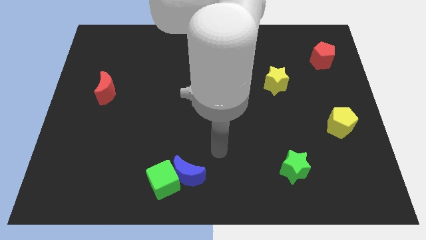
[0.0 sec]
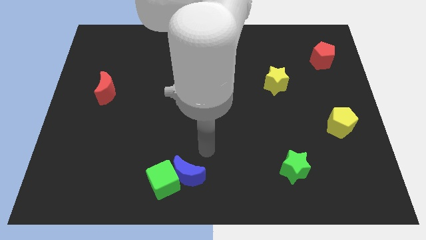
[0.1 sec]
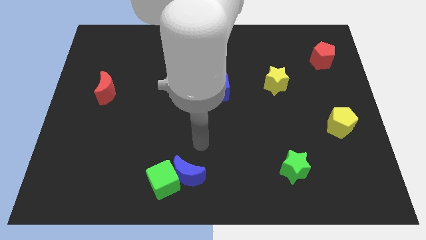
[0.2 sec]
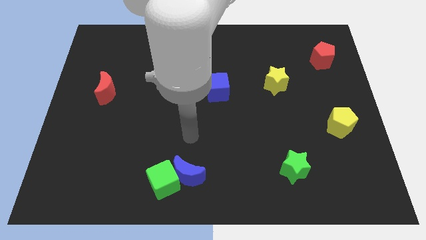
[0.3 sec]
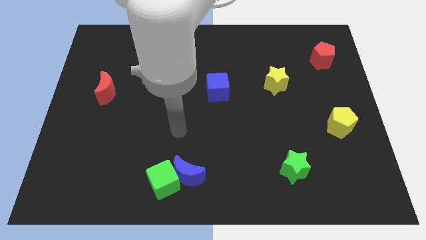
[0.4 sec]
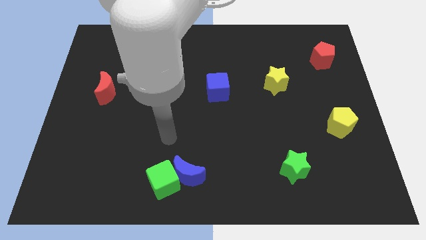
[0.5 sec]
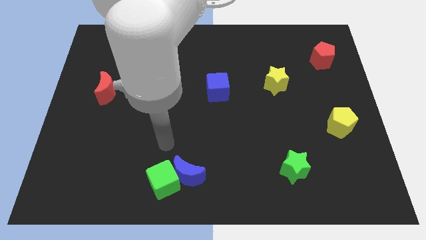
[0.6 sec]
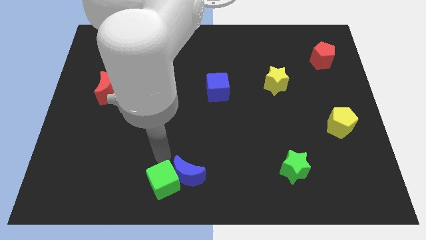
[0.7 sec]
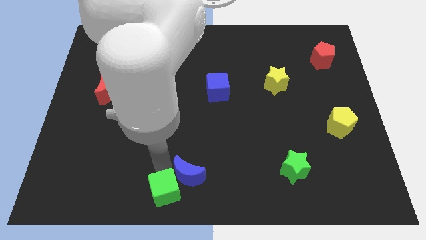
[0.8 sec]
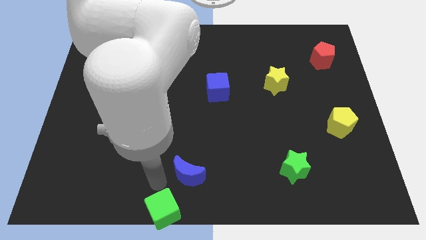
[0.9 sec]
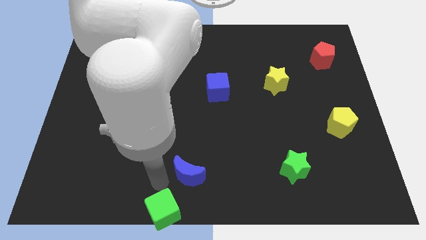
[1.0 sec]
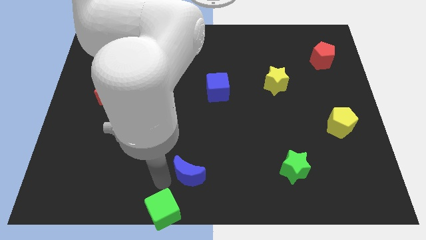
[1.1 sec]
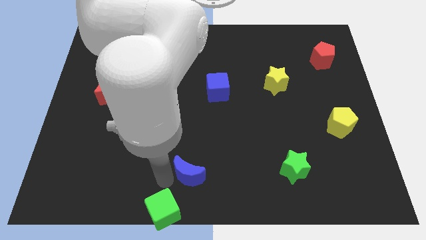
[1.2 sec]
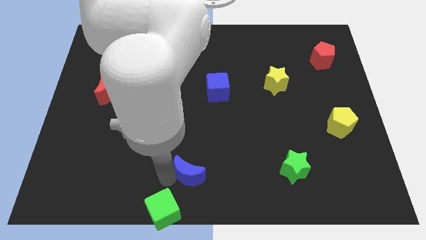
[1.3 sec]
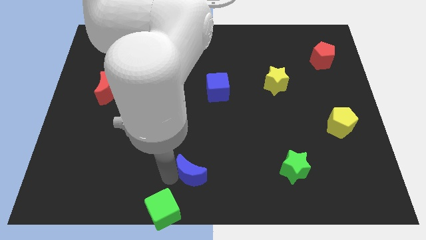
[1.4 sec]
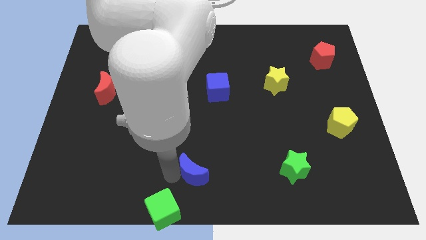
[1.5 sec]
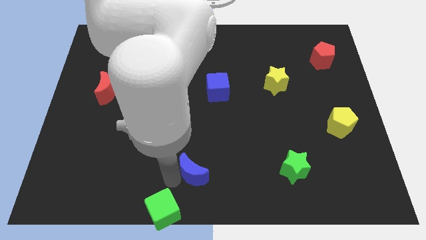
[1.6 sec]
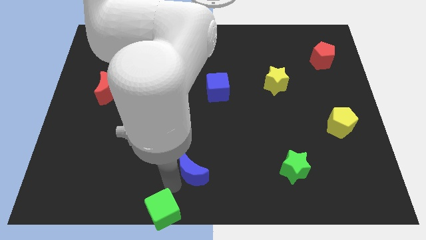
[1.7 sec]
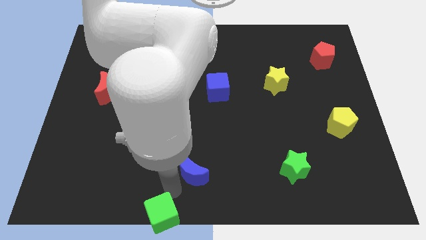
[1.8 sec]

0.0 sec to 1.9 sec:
separate the blue moon from the green cube

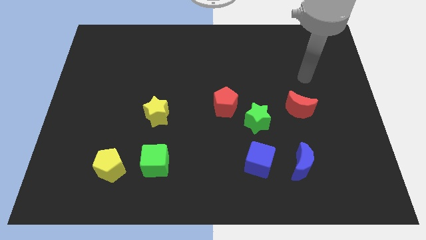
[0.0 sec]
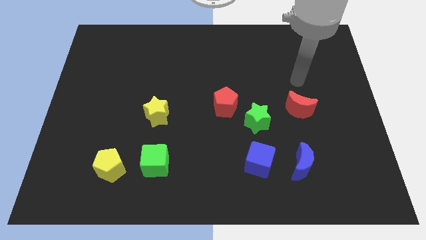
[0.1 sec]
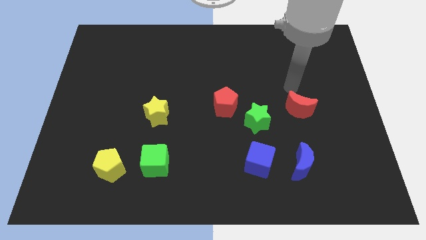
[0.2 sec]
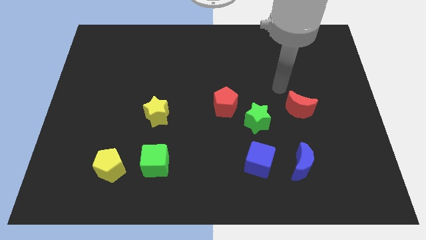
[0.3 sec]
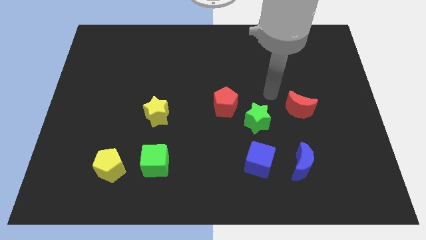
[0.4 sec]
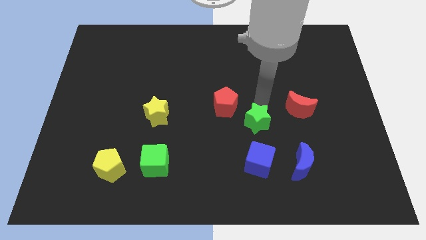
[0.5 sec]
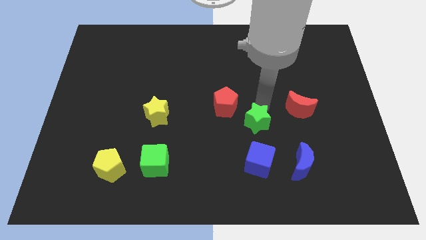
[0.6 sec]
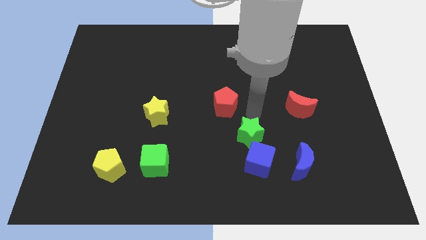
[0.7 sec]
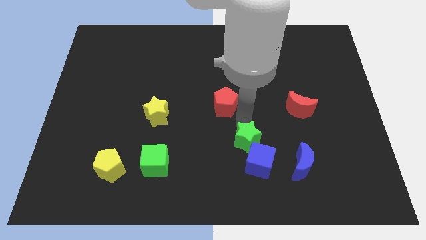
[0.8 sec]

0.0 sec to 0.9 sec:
separate the red pentagon from the green star

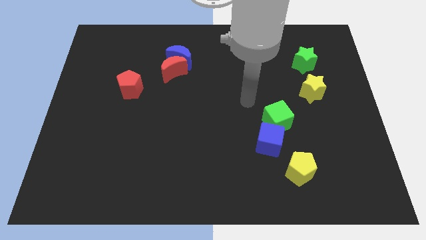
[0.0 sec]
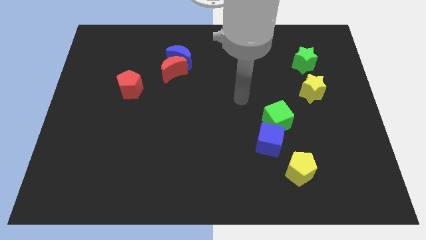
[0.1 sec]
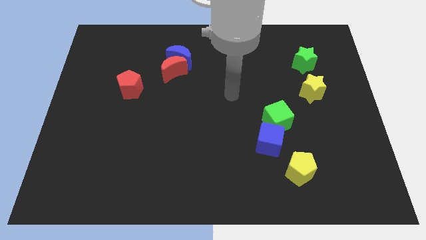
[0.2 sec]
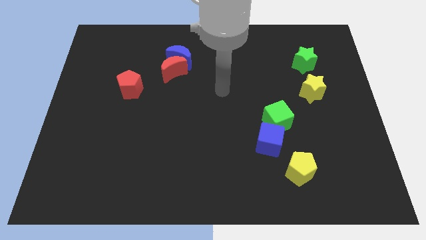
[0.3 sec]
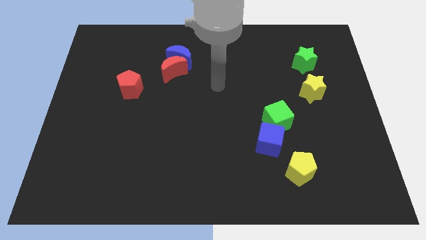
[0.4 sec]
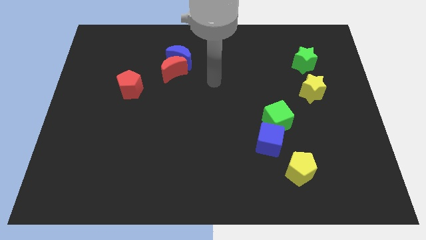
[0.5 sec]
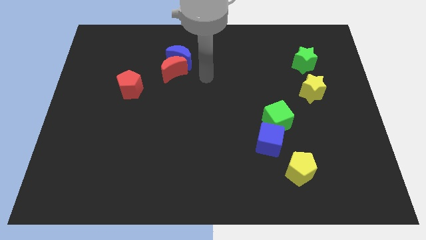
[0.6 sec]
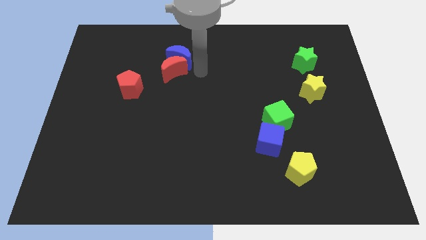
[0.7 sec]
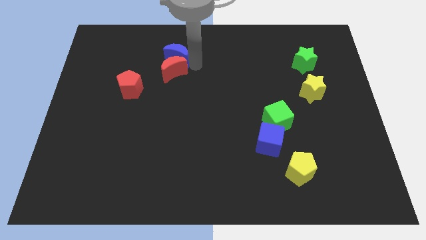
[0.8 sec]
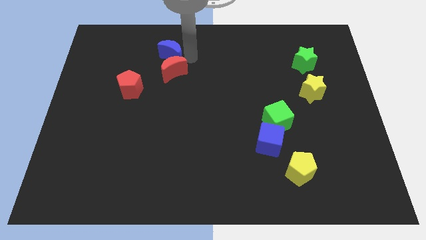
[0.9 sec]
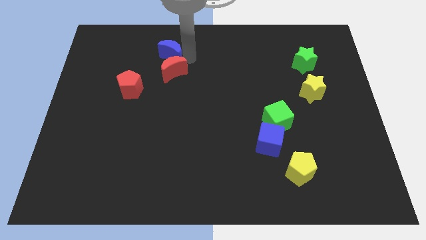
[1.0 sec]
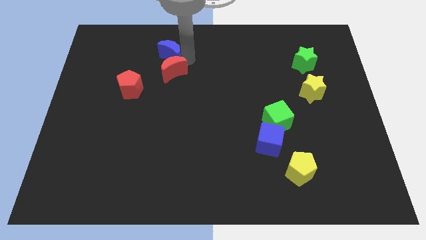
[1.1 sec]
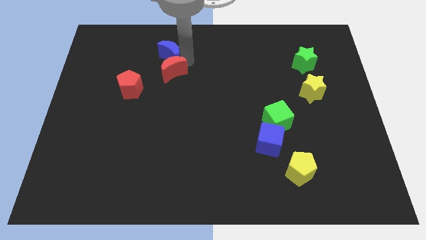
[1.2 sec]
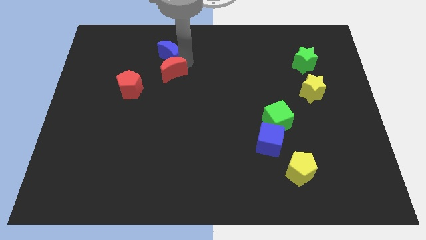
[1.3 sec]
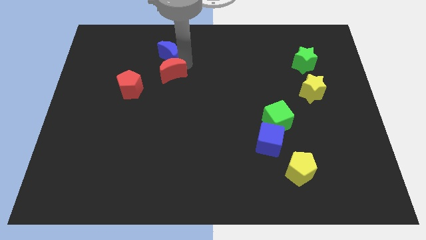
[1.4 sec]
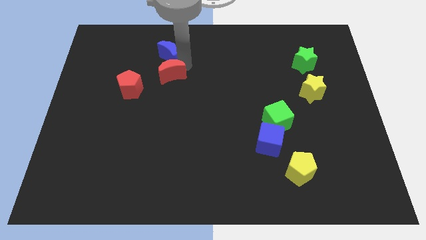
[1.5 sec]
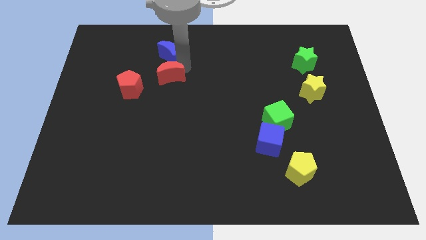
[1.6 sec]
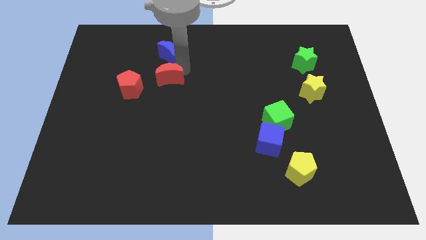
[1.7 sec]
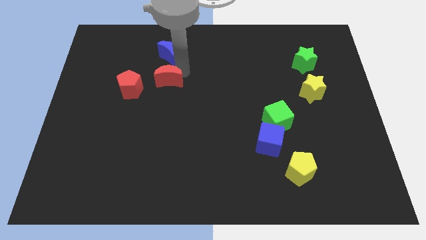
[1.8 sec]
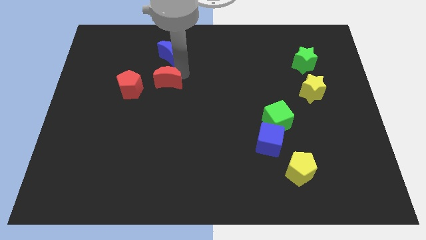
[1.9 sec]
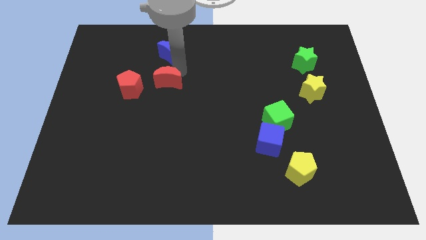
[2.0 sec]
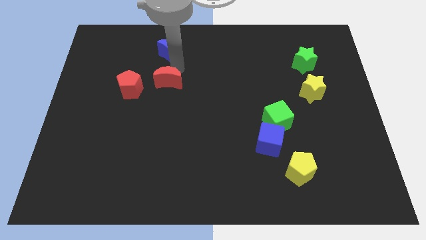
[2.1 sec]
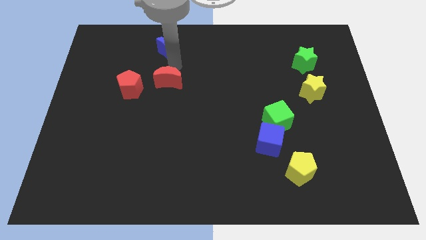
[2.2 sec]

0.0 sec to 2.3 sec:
move the red moon away from the blue moon

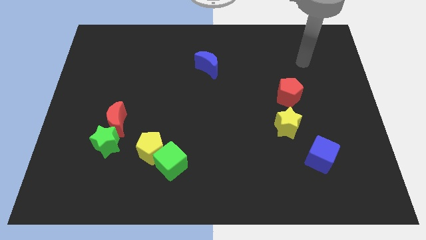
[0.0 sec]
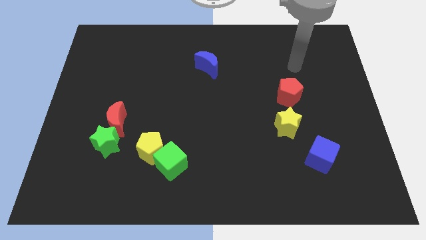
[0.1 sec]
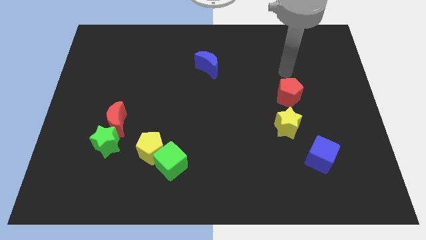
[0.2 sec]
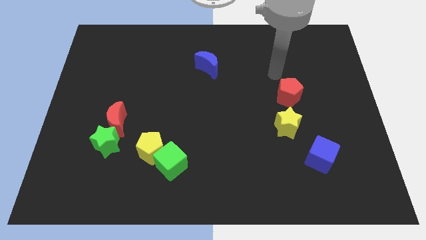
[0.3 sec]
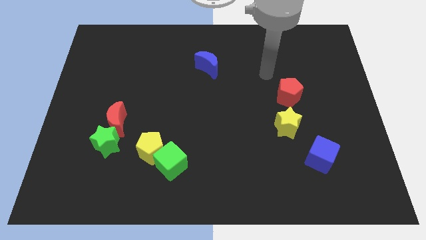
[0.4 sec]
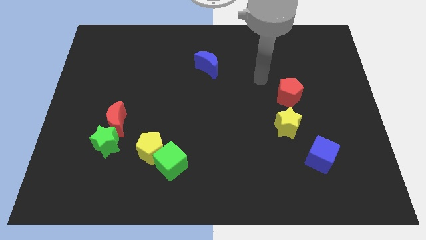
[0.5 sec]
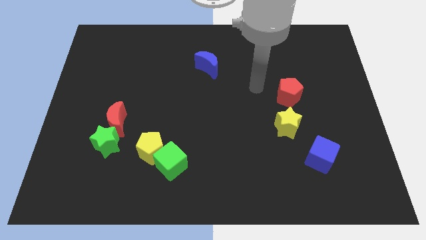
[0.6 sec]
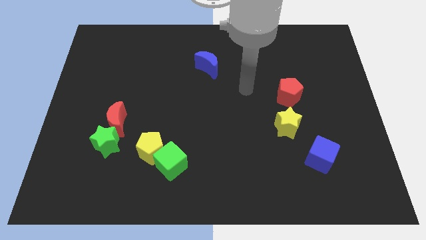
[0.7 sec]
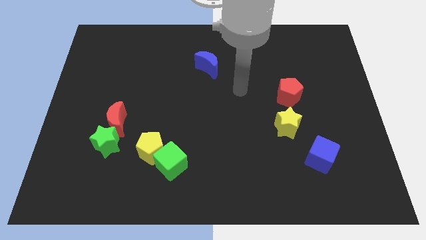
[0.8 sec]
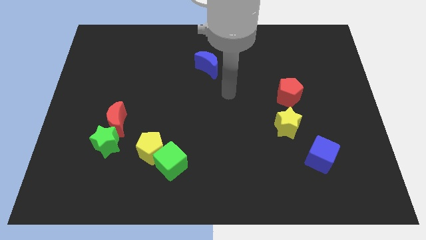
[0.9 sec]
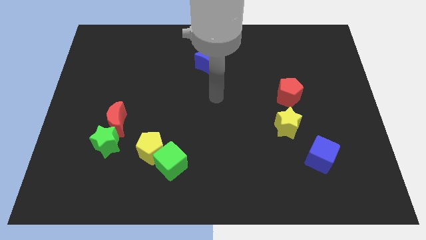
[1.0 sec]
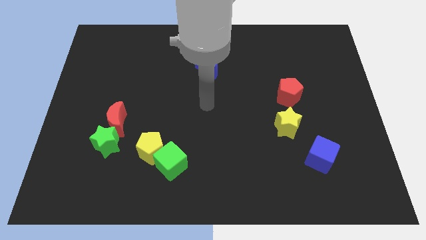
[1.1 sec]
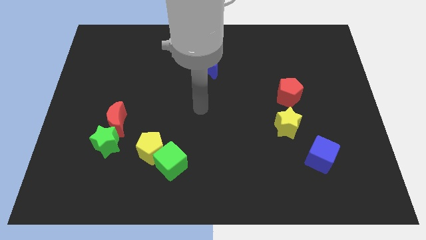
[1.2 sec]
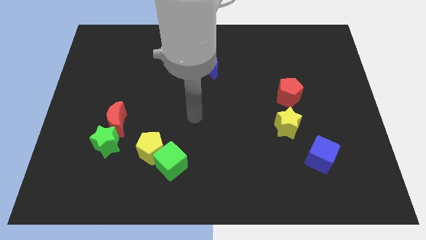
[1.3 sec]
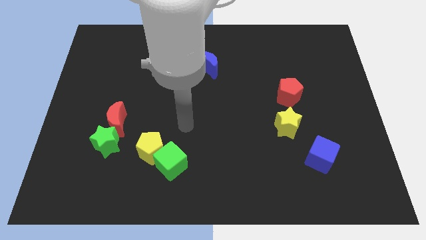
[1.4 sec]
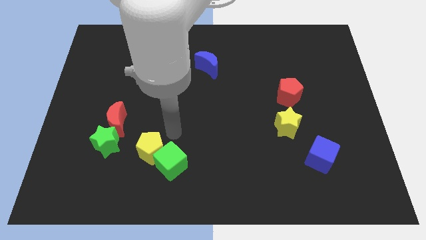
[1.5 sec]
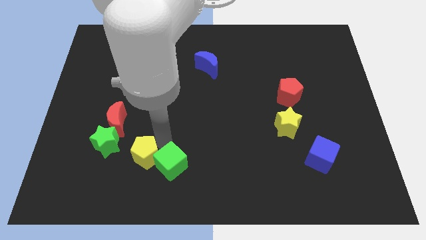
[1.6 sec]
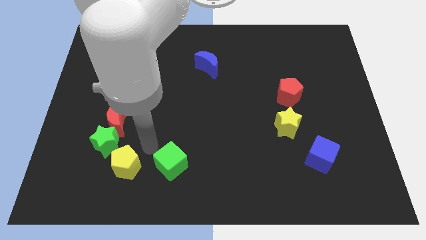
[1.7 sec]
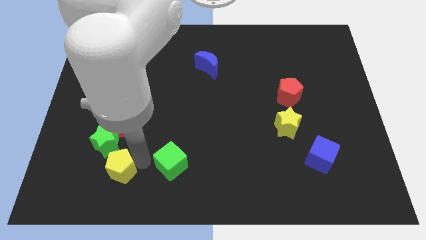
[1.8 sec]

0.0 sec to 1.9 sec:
separate the green cube from the yellow pentagon

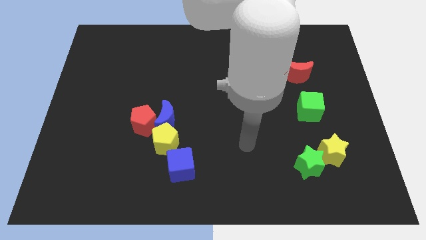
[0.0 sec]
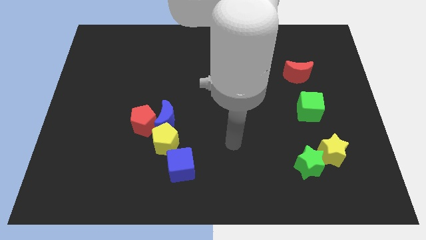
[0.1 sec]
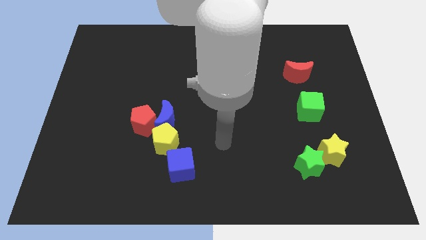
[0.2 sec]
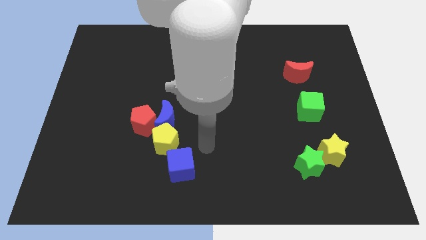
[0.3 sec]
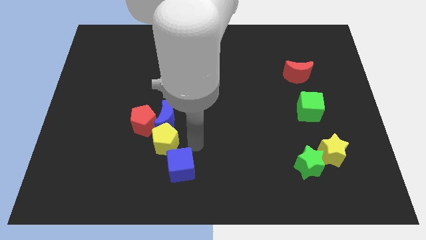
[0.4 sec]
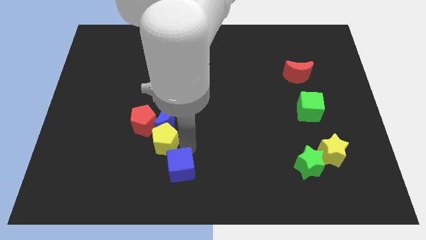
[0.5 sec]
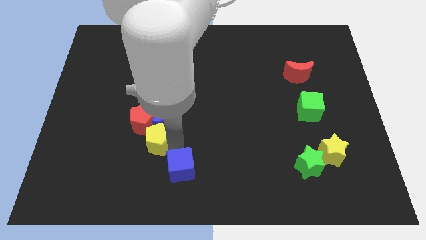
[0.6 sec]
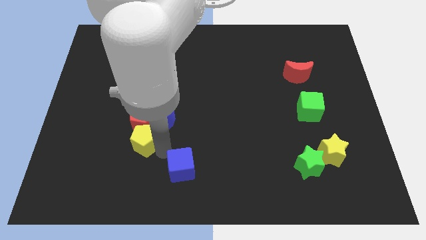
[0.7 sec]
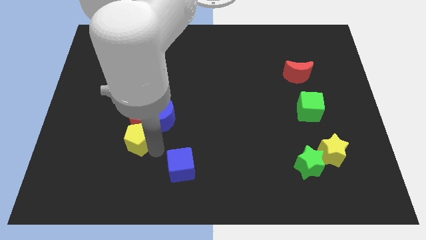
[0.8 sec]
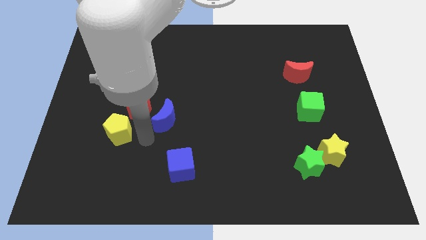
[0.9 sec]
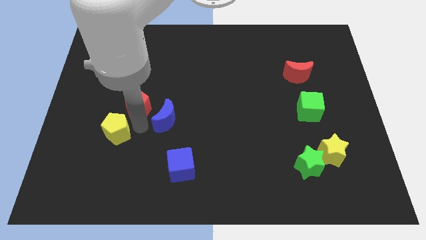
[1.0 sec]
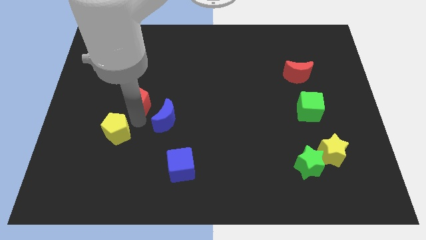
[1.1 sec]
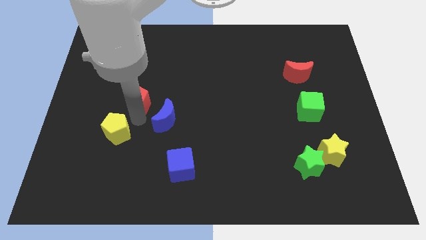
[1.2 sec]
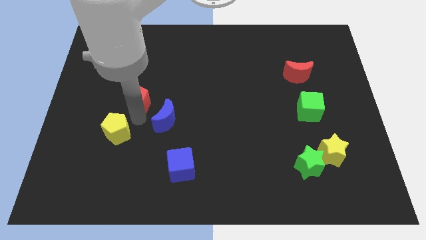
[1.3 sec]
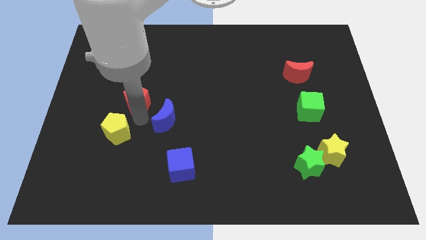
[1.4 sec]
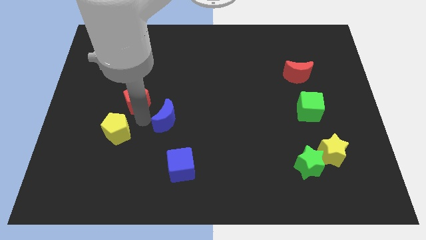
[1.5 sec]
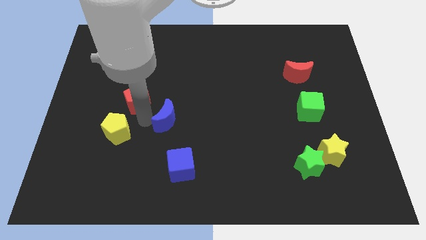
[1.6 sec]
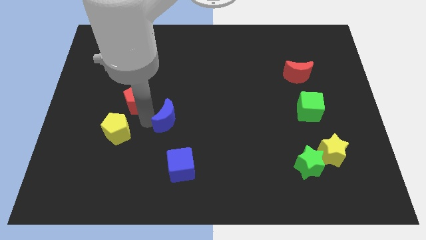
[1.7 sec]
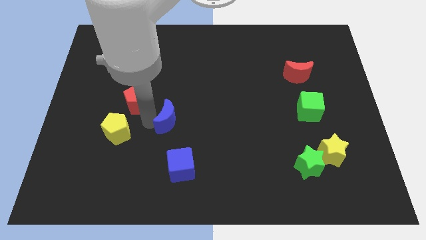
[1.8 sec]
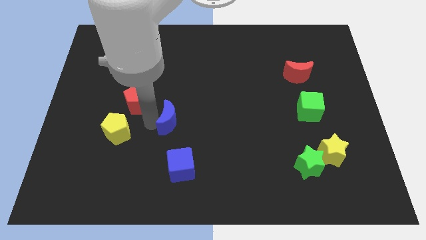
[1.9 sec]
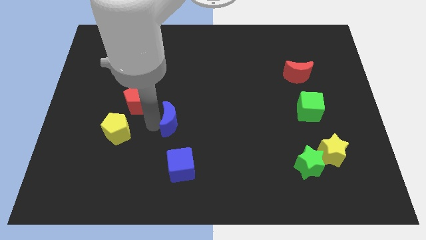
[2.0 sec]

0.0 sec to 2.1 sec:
move the blue moon away from the red pentagon and yellow pentagon
